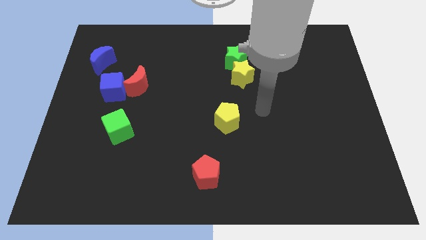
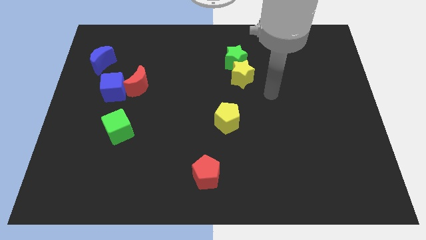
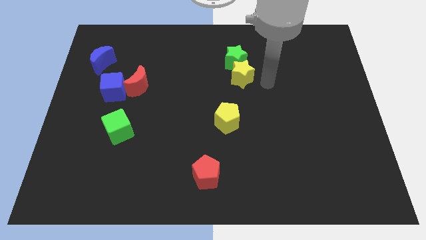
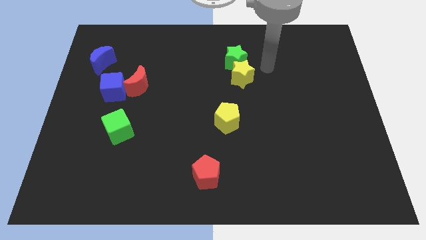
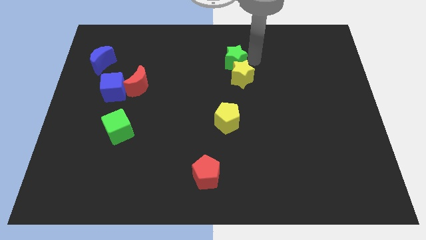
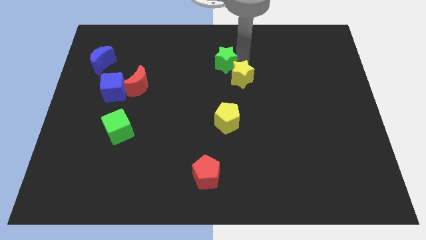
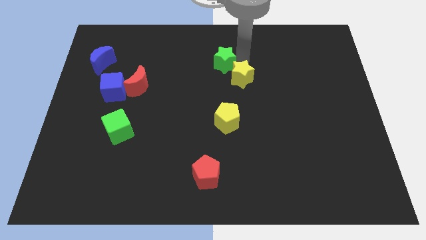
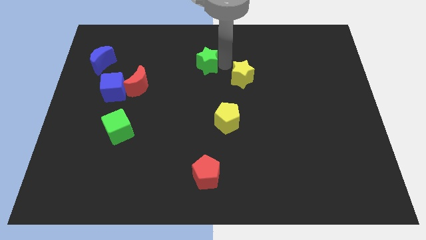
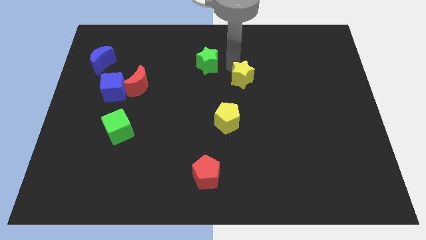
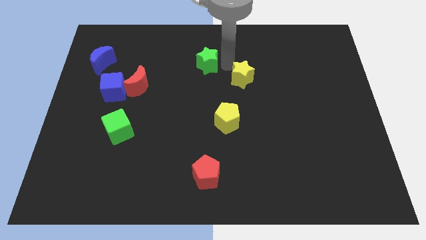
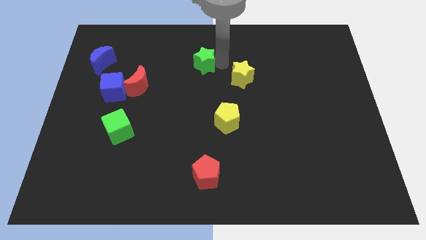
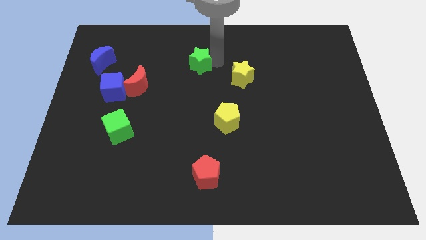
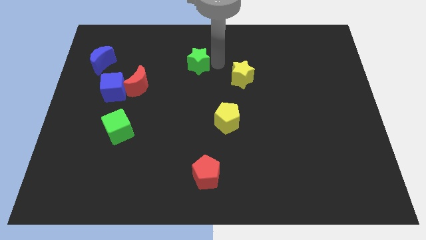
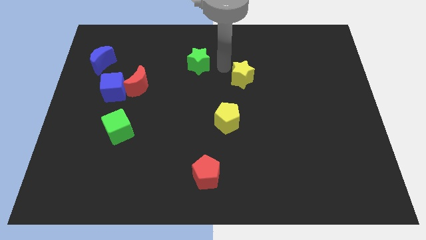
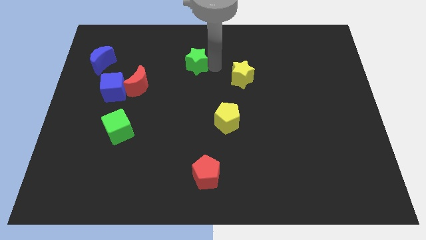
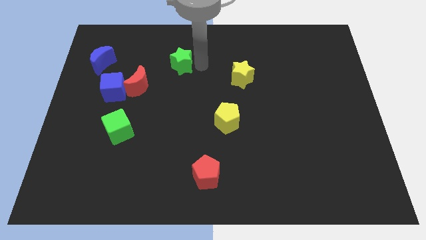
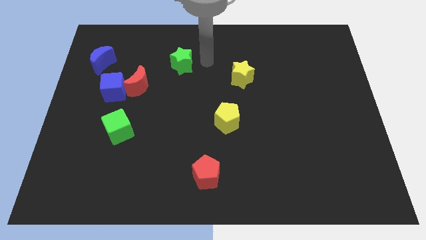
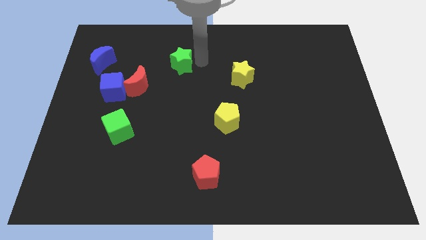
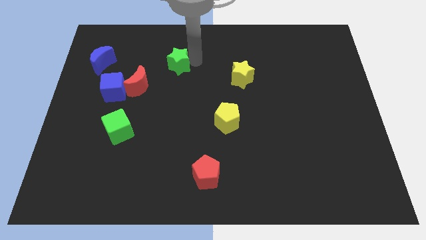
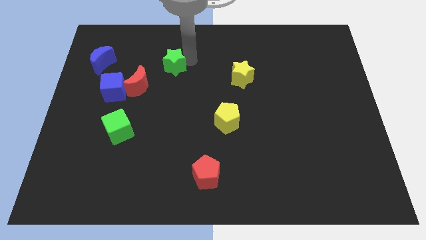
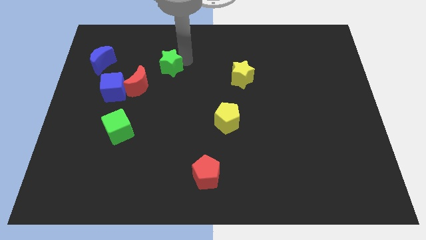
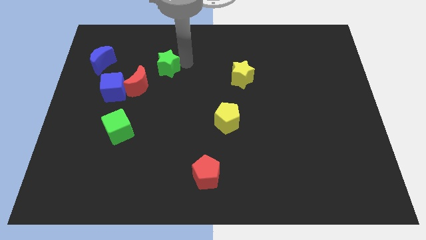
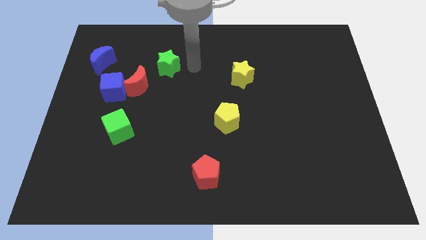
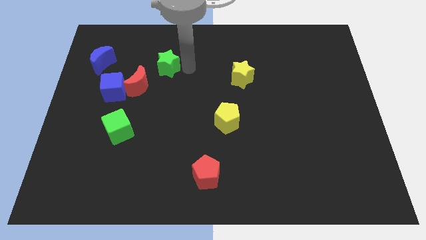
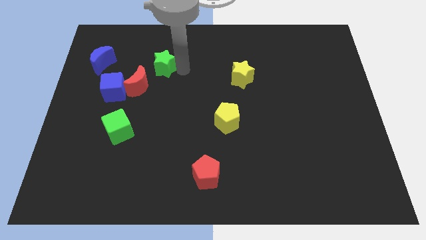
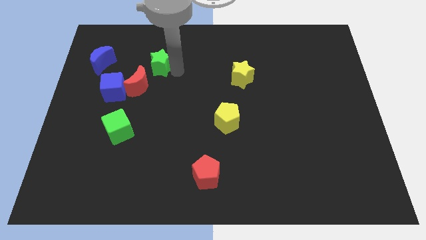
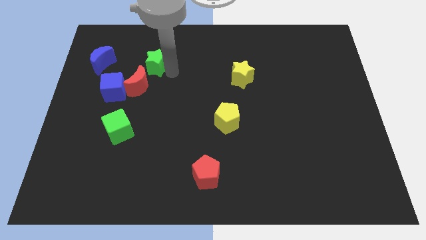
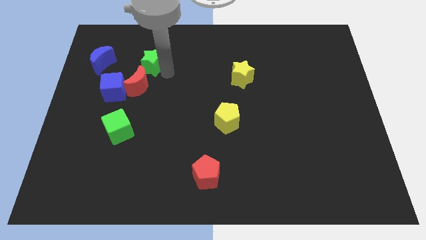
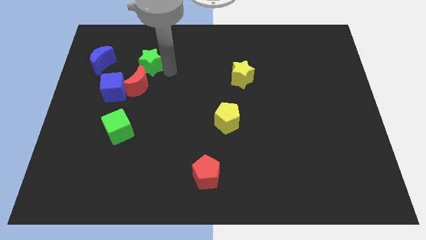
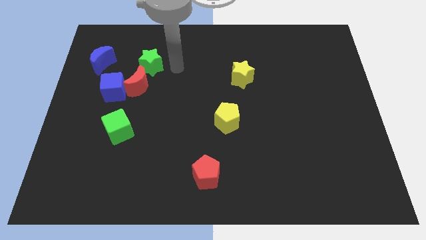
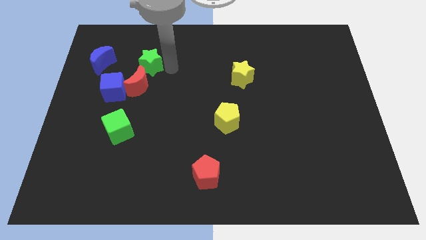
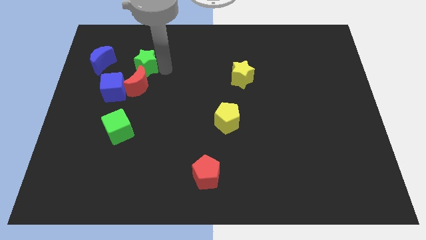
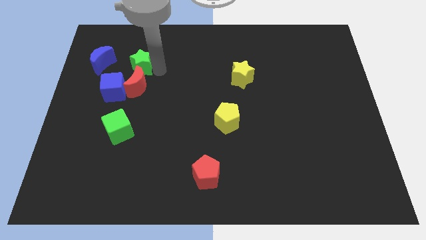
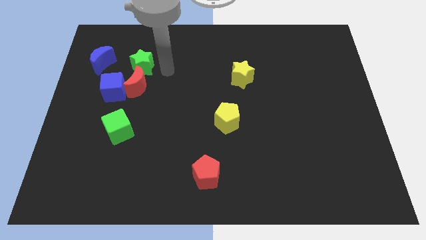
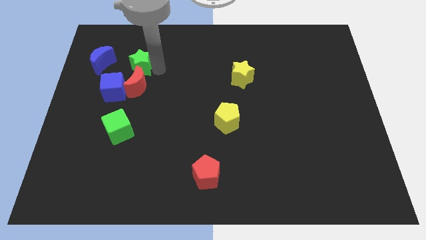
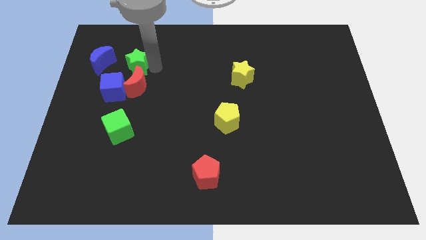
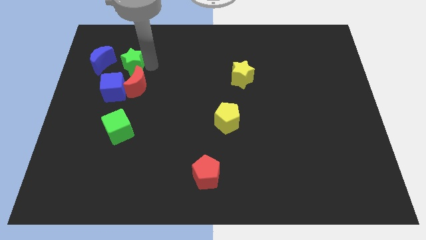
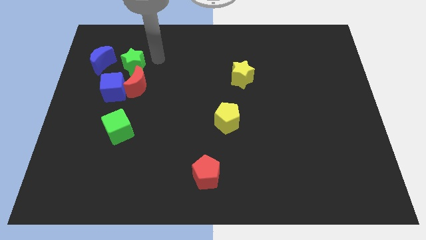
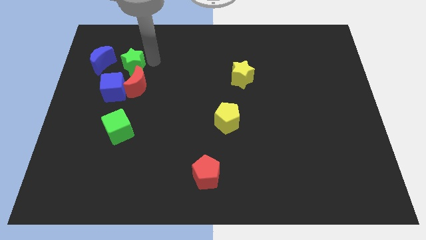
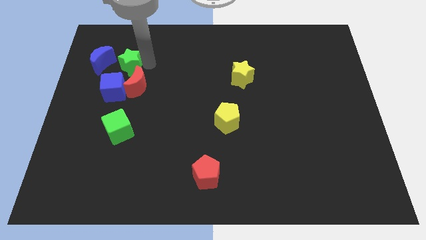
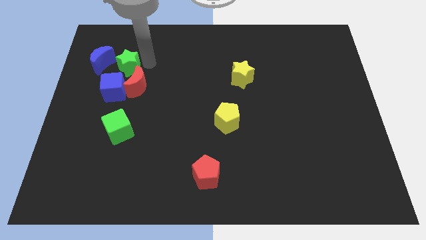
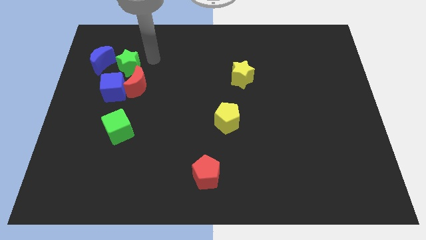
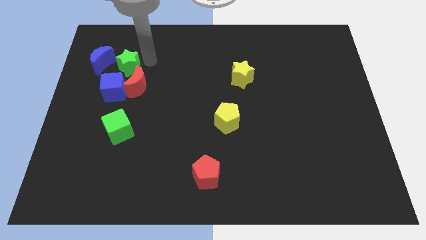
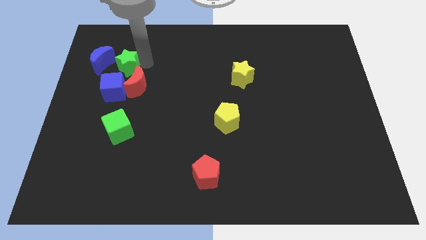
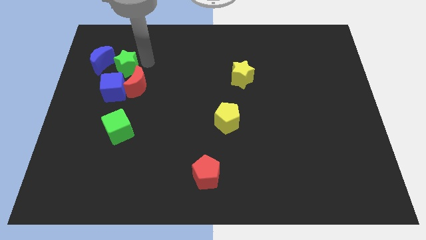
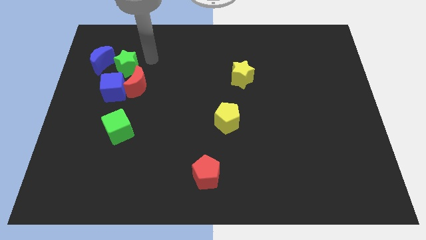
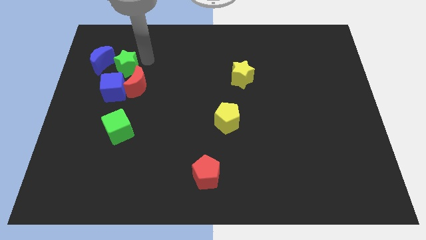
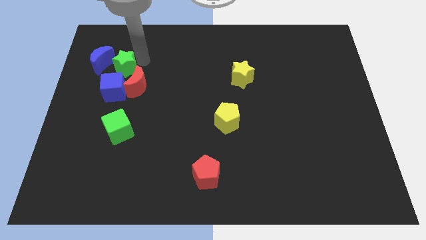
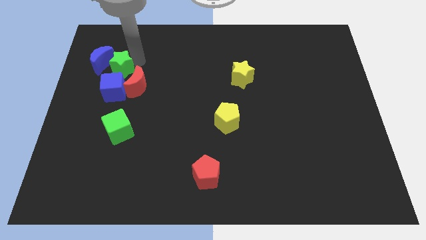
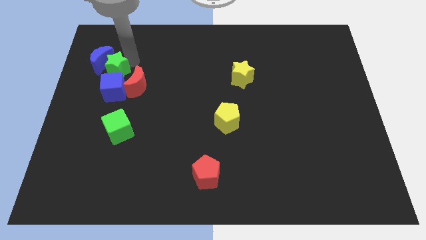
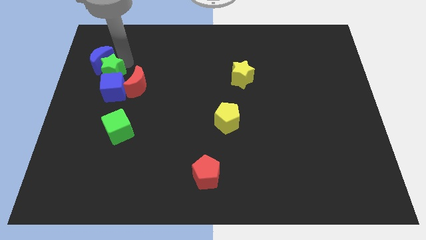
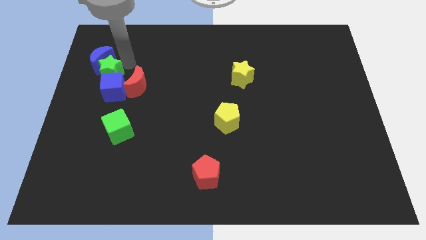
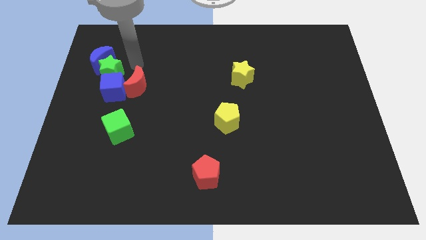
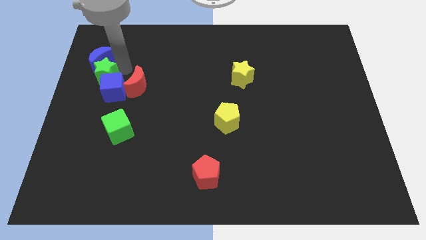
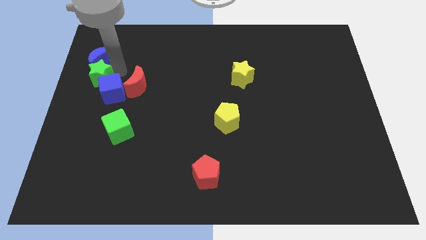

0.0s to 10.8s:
slide the green star to the left side

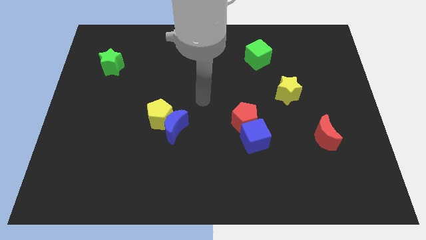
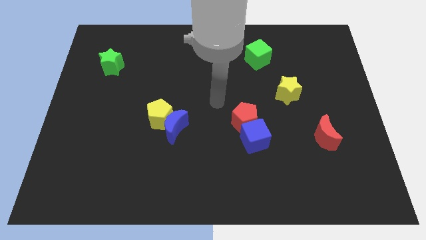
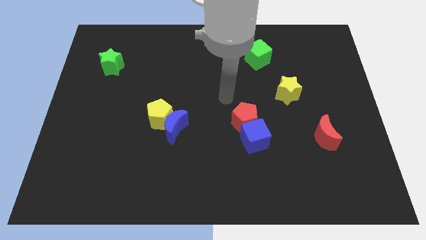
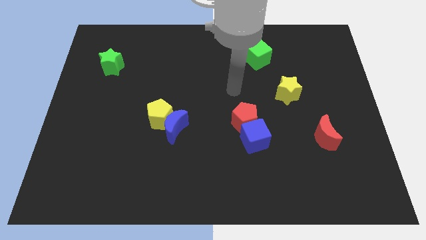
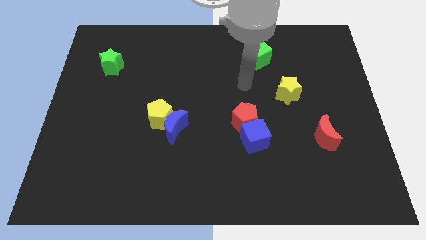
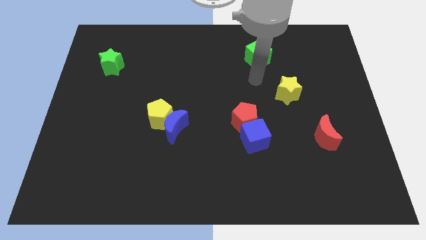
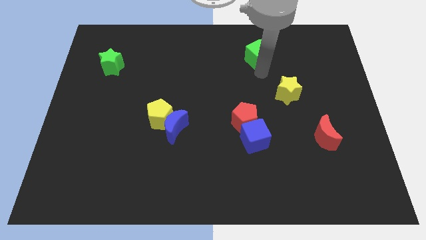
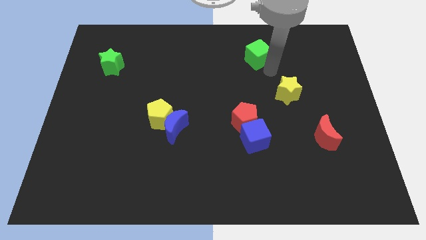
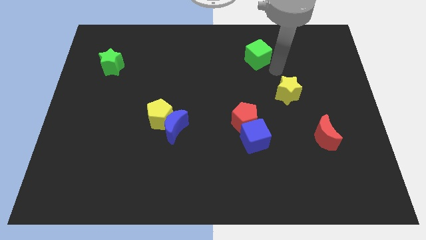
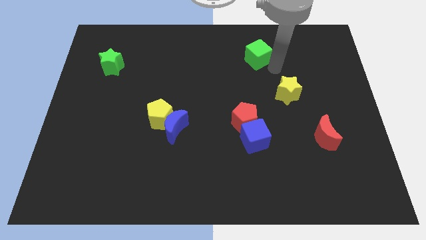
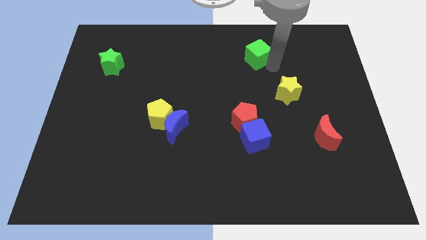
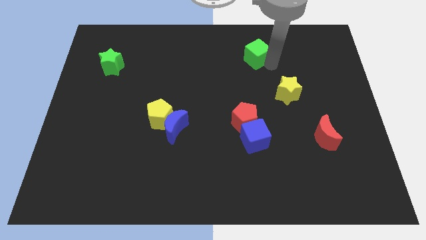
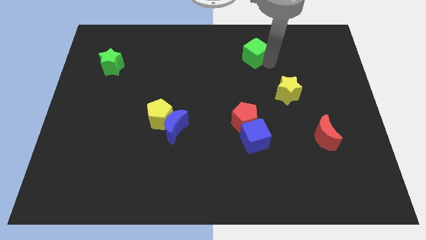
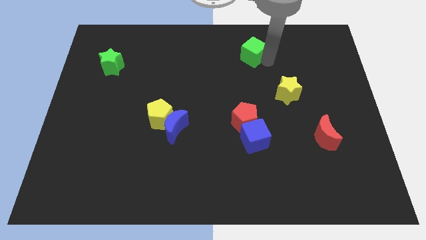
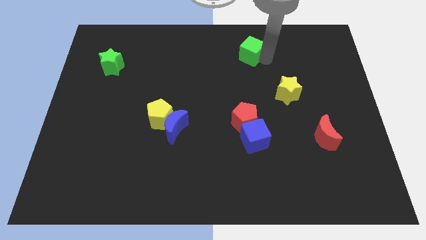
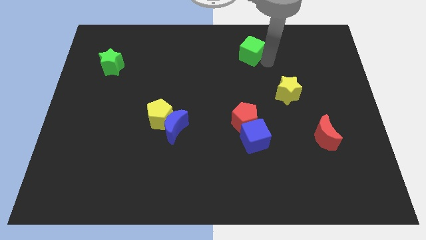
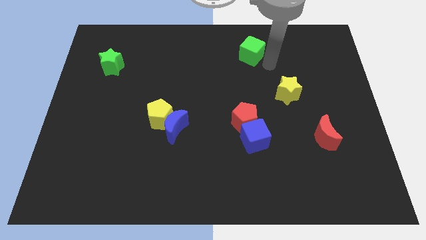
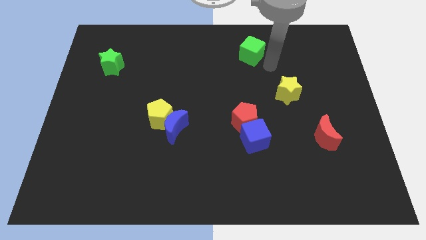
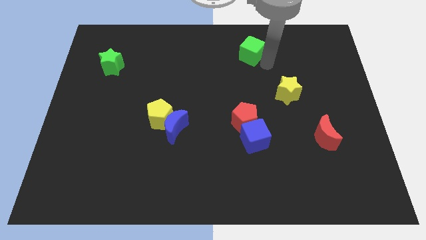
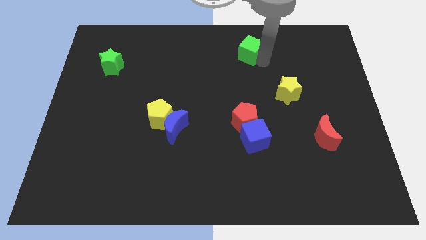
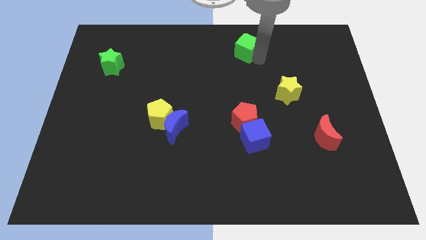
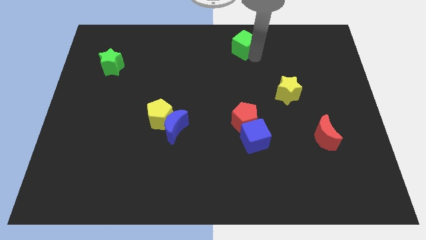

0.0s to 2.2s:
push the green cube to the towards your base

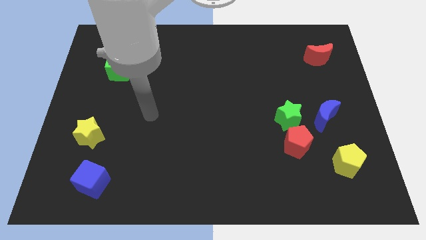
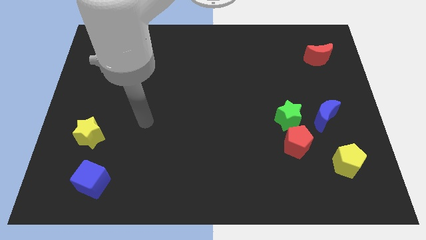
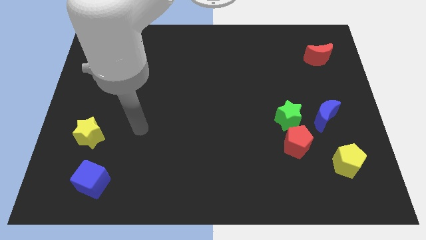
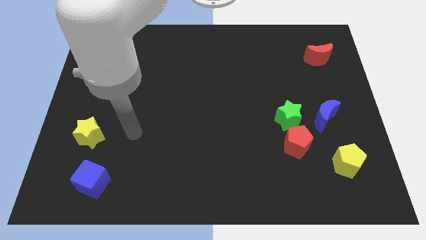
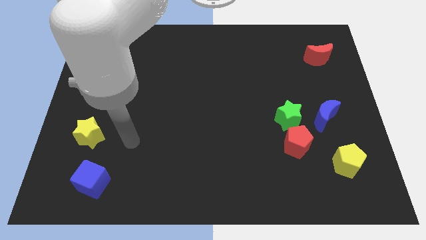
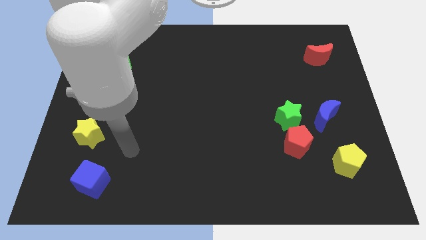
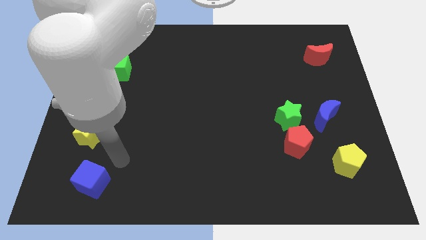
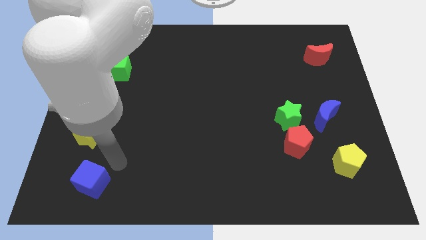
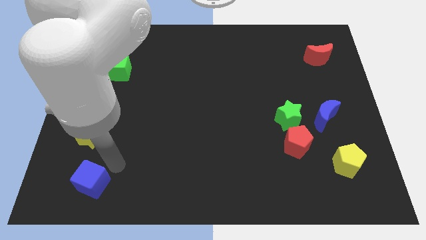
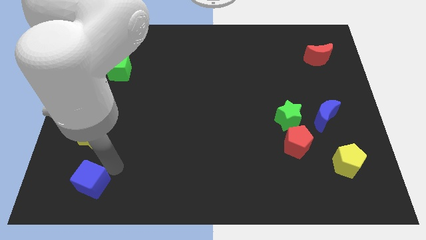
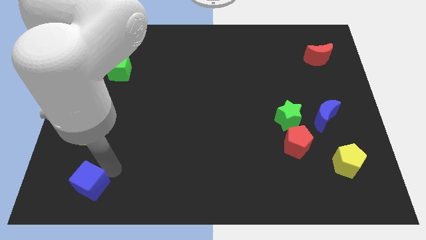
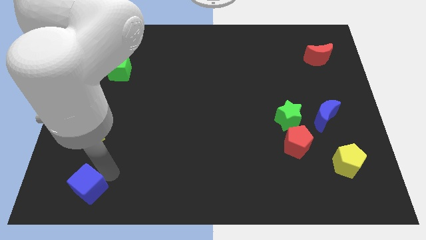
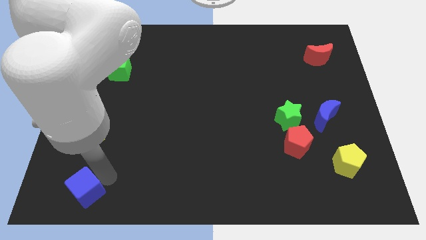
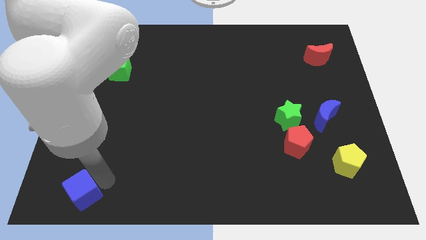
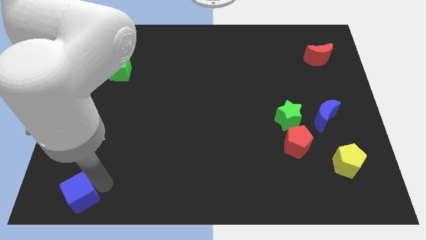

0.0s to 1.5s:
move the blue cube to the bottom left
